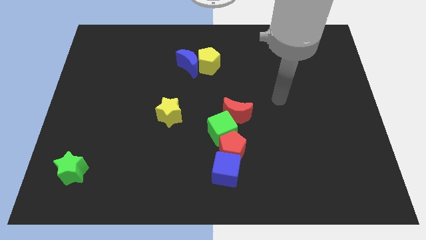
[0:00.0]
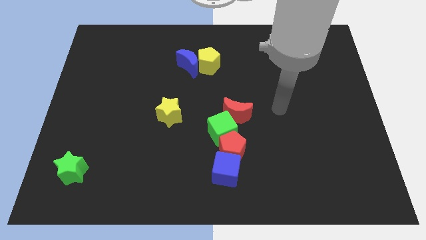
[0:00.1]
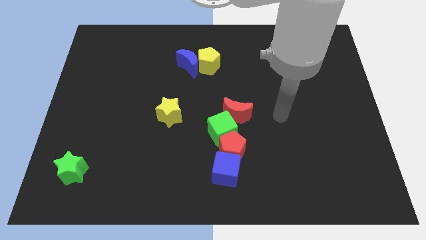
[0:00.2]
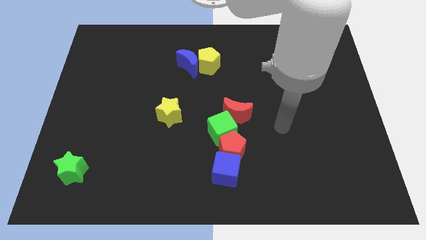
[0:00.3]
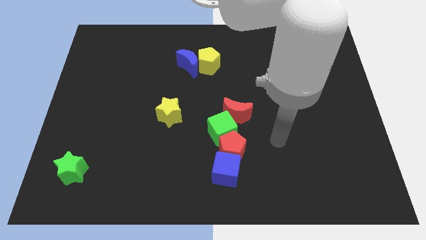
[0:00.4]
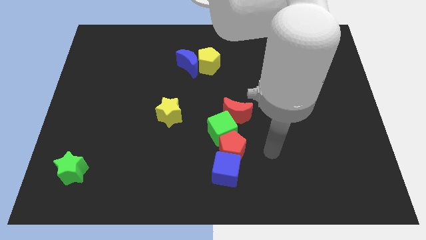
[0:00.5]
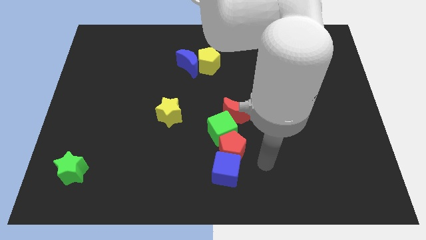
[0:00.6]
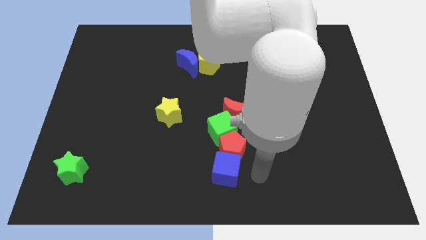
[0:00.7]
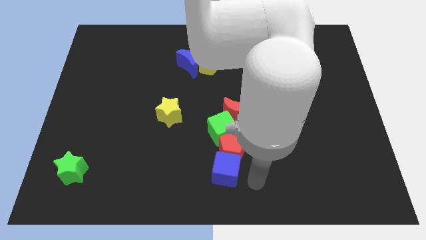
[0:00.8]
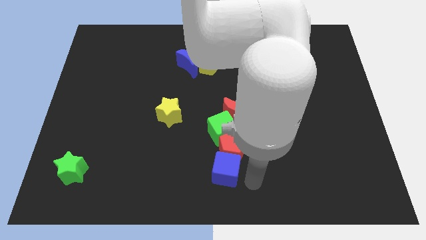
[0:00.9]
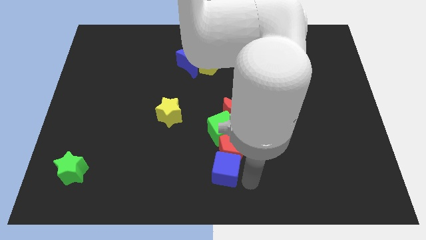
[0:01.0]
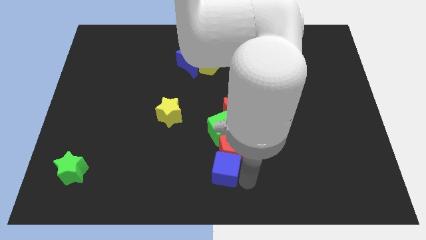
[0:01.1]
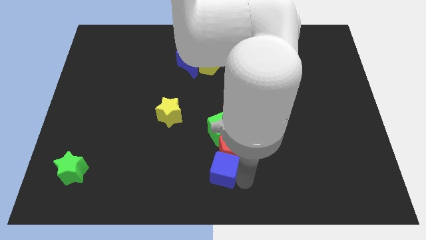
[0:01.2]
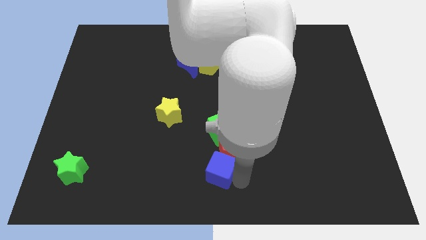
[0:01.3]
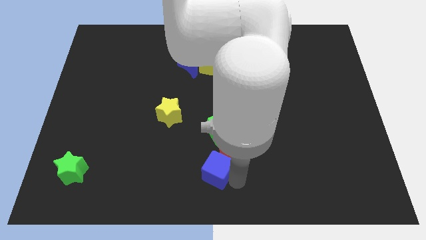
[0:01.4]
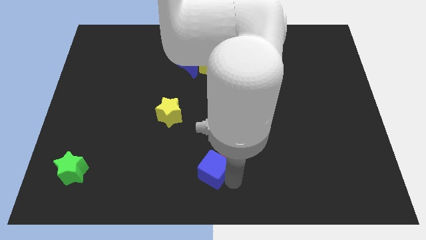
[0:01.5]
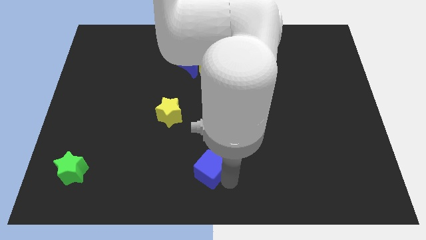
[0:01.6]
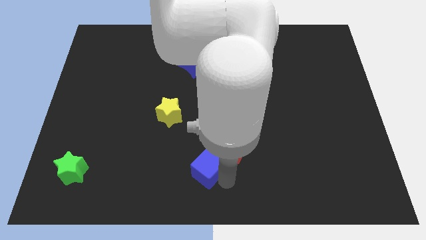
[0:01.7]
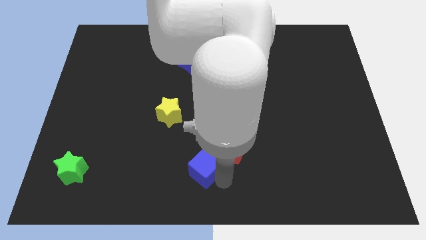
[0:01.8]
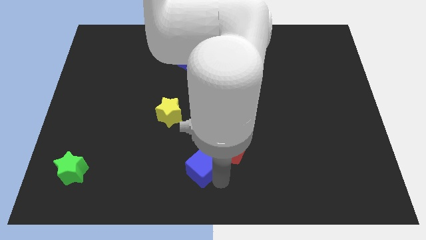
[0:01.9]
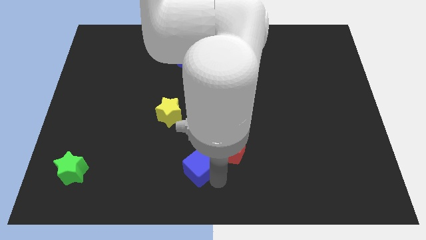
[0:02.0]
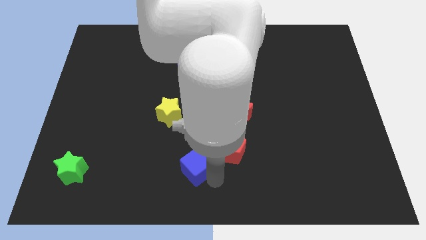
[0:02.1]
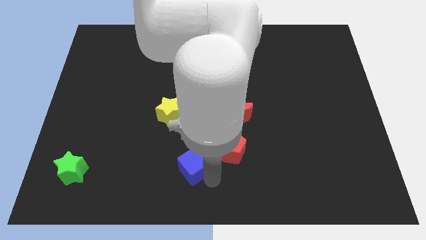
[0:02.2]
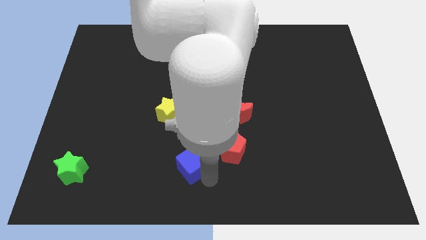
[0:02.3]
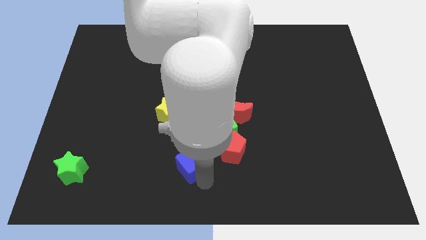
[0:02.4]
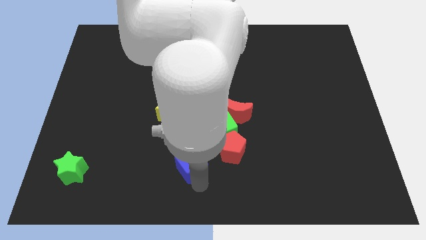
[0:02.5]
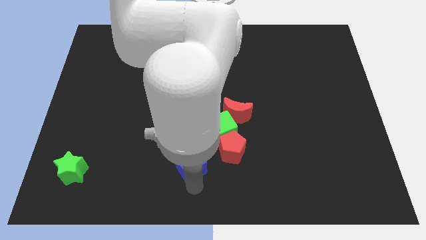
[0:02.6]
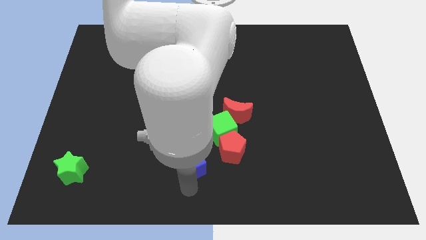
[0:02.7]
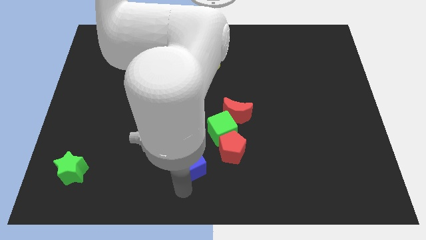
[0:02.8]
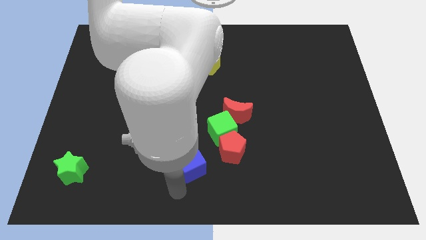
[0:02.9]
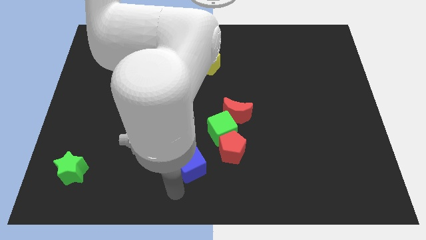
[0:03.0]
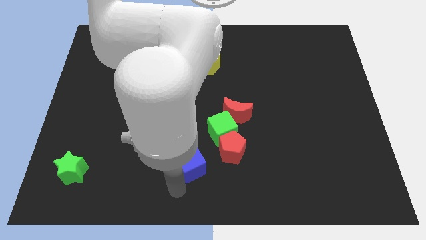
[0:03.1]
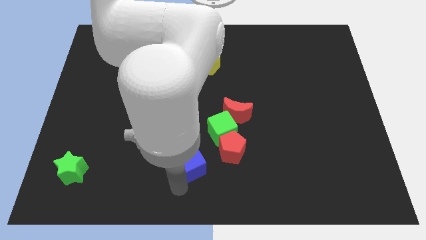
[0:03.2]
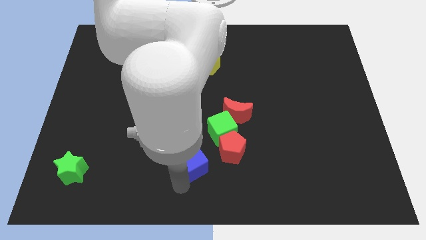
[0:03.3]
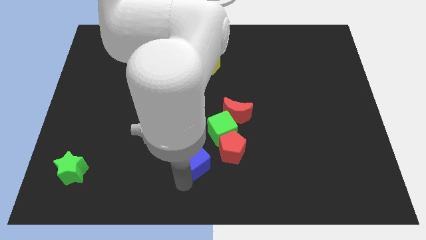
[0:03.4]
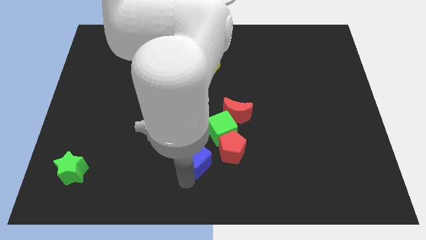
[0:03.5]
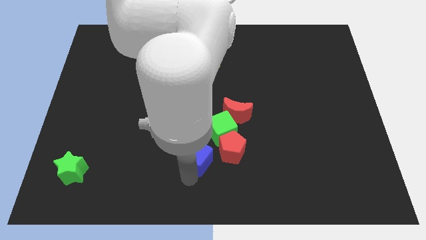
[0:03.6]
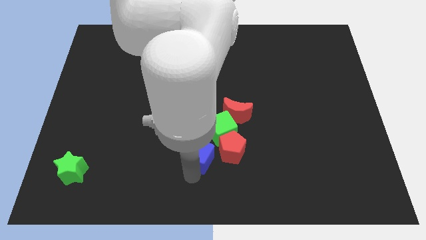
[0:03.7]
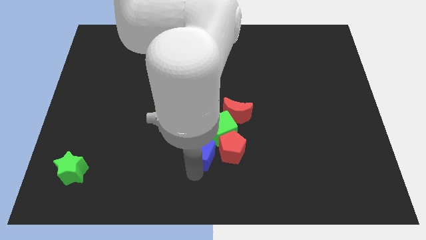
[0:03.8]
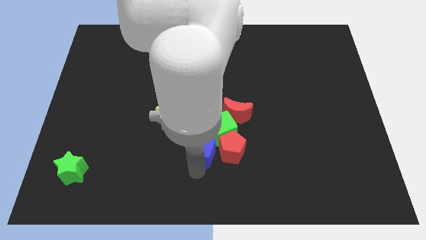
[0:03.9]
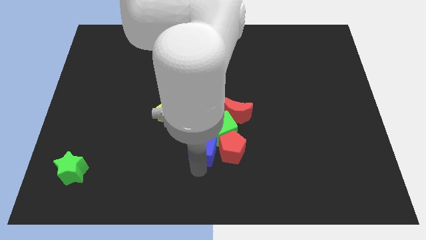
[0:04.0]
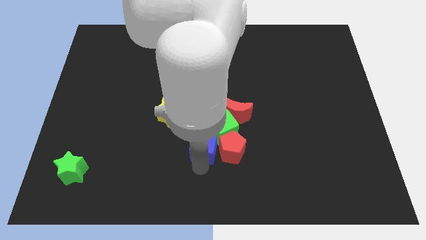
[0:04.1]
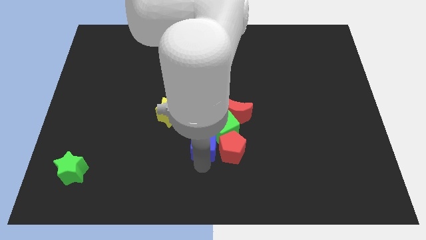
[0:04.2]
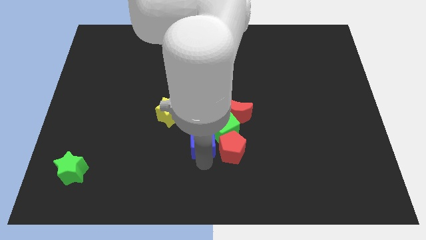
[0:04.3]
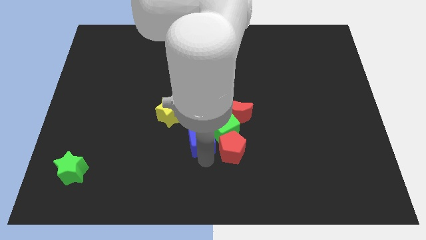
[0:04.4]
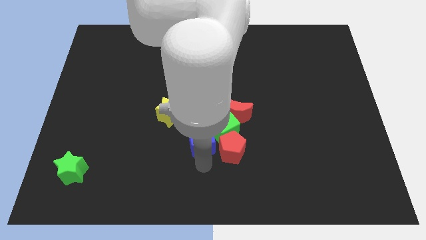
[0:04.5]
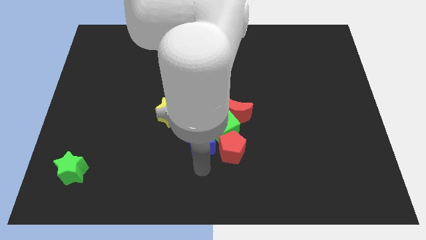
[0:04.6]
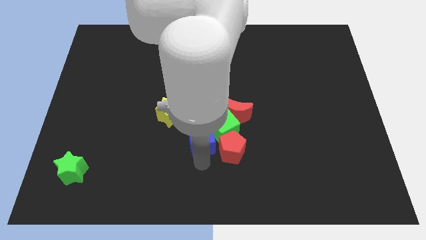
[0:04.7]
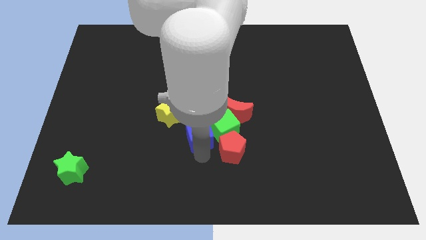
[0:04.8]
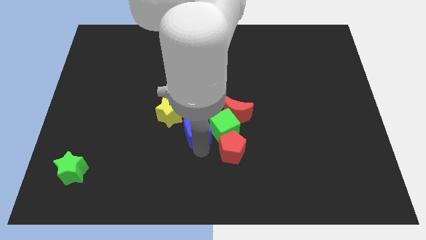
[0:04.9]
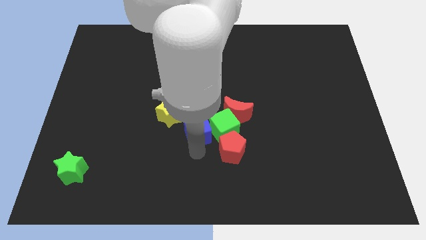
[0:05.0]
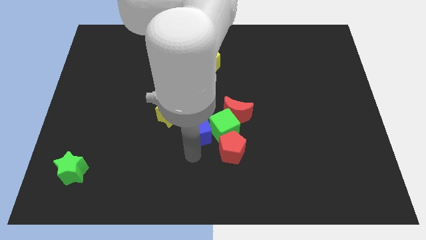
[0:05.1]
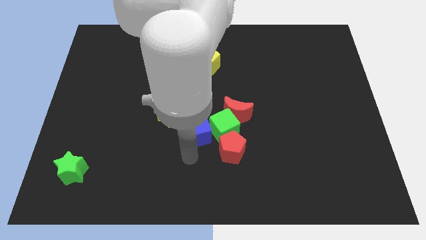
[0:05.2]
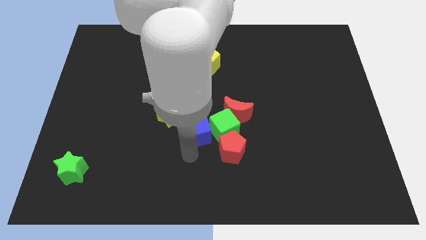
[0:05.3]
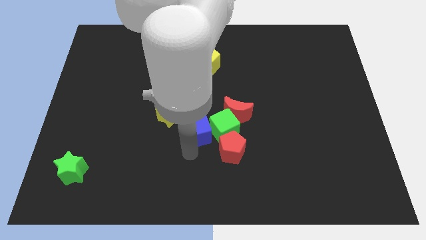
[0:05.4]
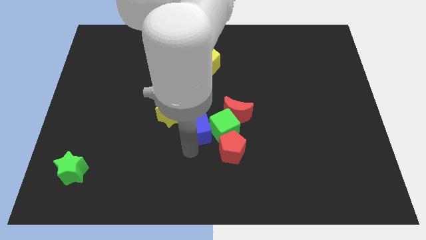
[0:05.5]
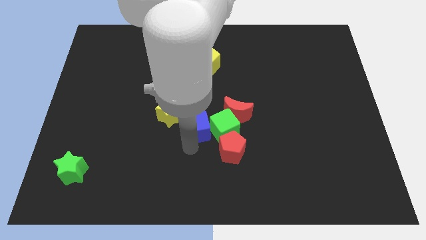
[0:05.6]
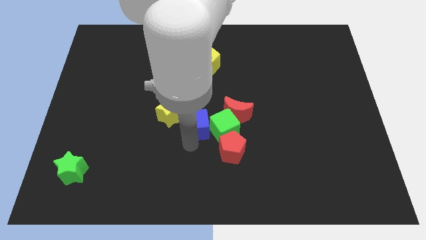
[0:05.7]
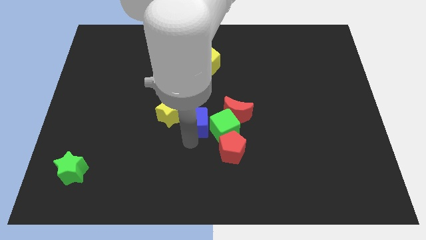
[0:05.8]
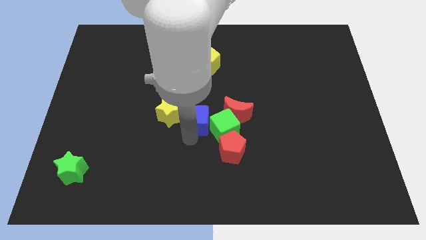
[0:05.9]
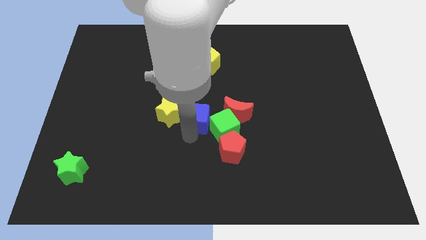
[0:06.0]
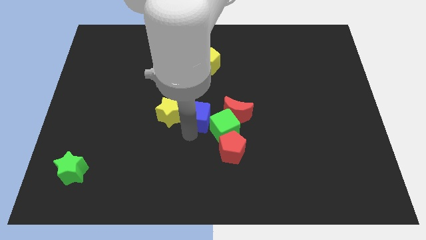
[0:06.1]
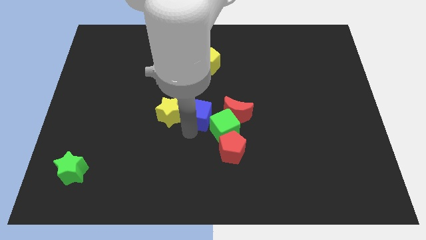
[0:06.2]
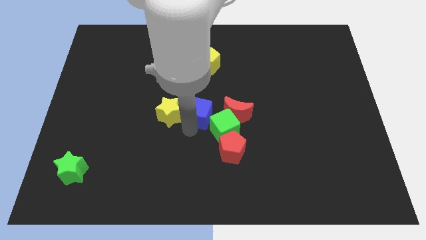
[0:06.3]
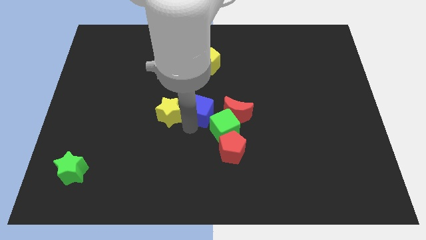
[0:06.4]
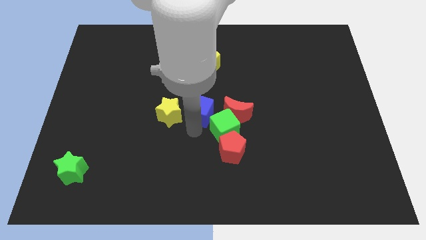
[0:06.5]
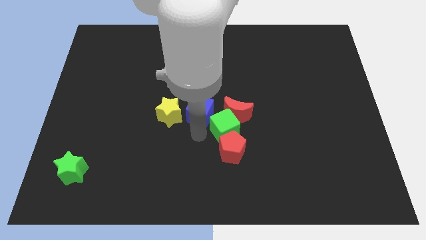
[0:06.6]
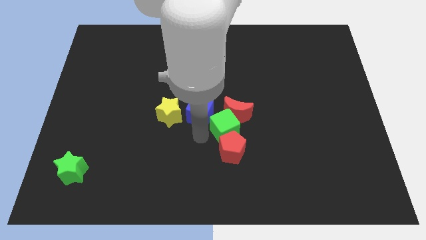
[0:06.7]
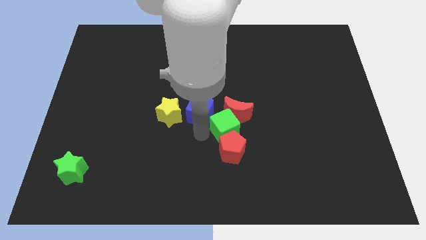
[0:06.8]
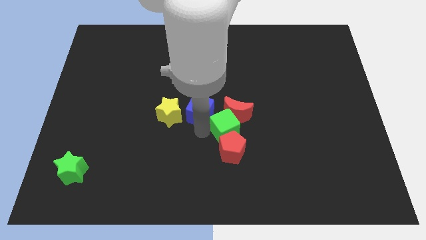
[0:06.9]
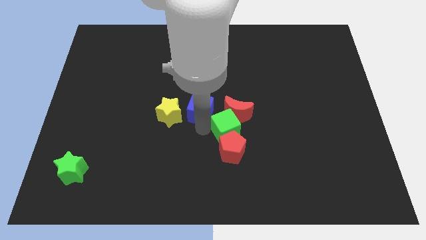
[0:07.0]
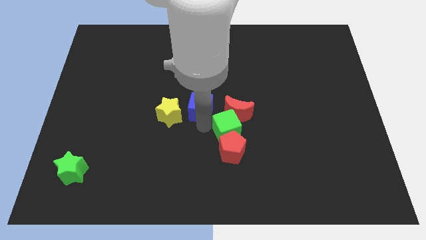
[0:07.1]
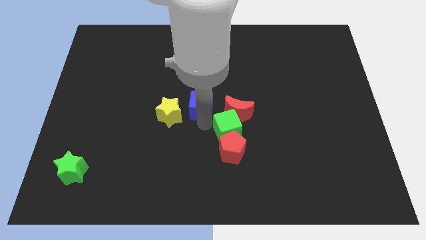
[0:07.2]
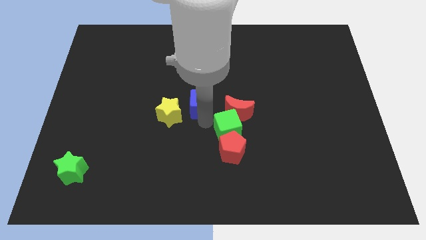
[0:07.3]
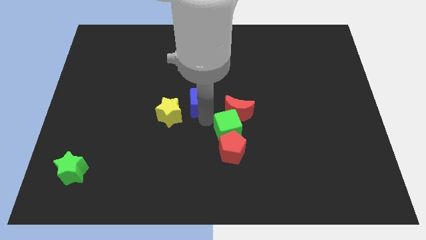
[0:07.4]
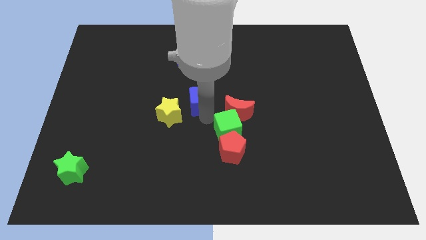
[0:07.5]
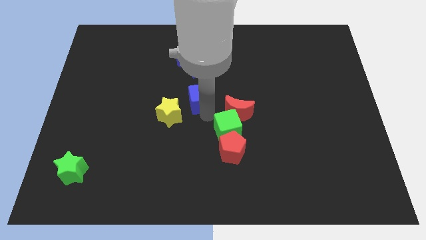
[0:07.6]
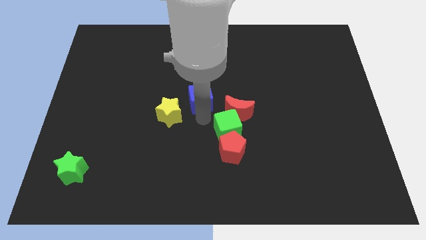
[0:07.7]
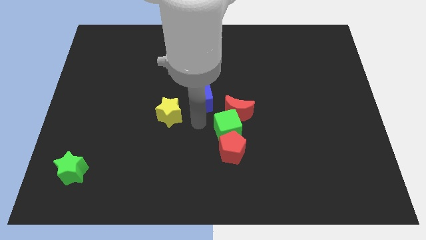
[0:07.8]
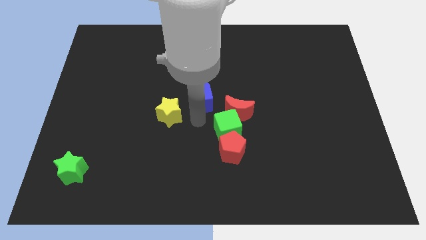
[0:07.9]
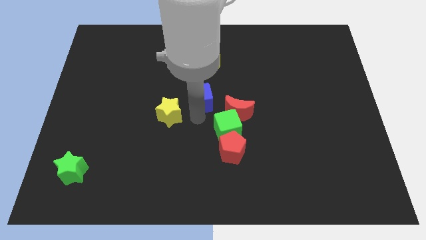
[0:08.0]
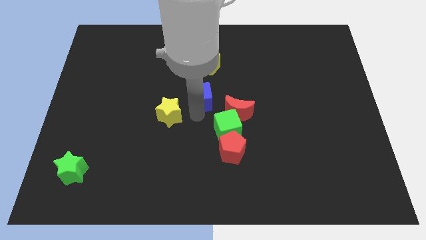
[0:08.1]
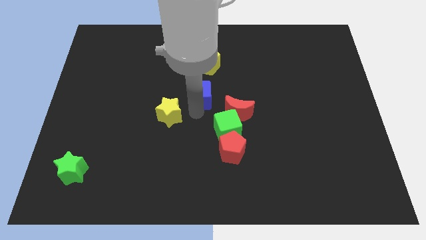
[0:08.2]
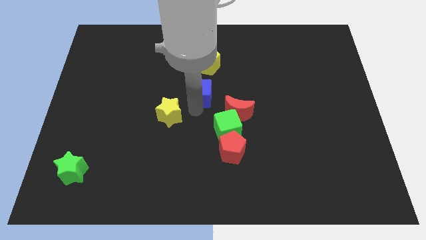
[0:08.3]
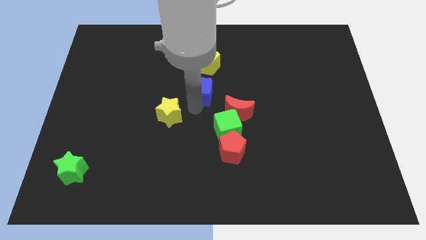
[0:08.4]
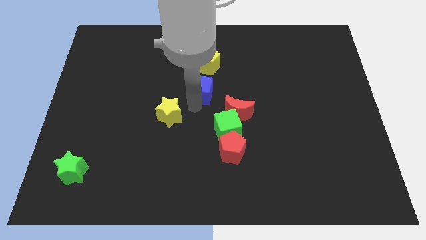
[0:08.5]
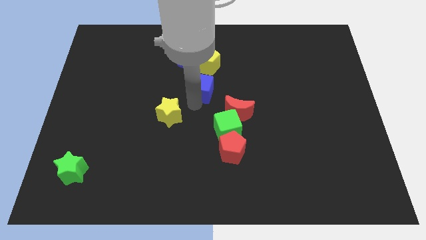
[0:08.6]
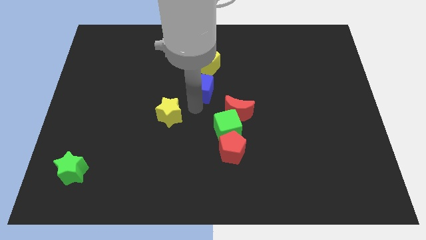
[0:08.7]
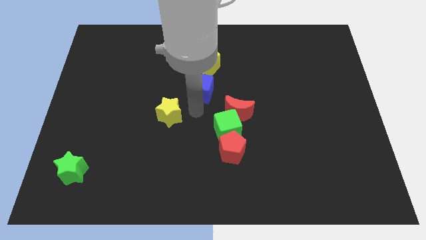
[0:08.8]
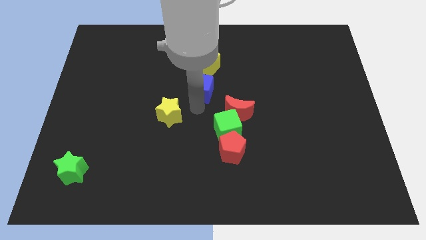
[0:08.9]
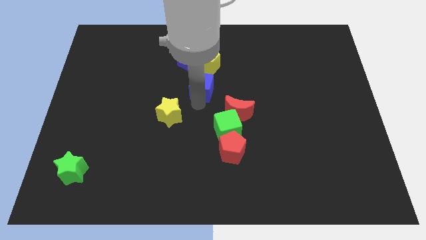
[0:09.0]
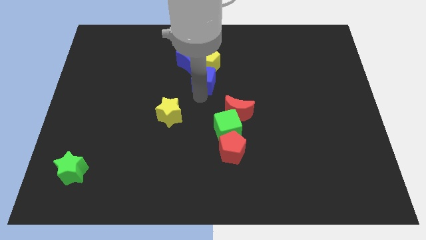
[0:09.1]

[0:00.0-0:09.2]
move the blue cube towards the yellow pentagon
